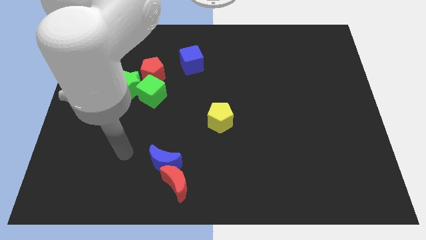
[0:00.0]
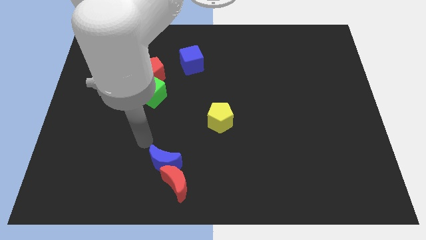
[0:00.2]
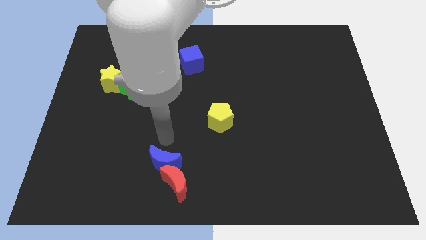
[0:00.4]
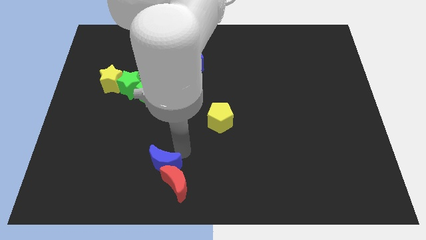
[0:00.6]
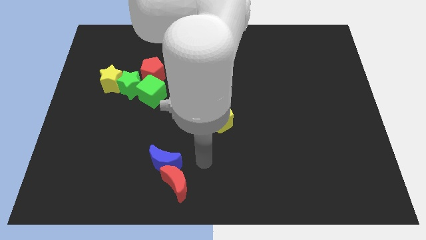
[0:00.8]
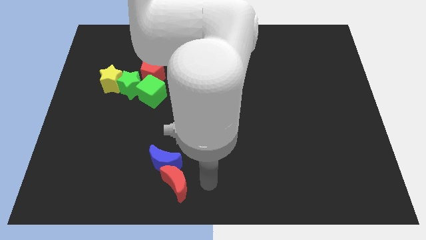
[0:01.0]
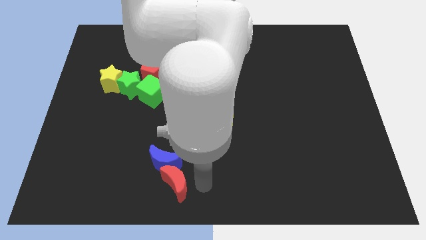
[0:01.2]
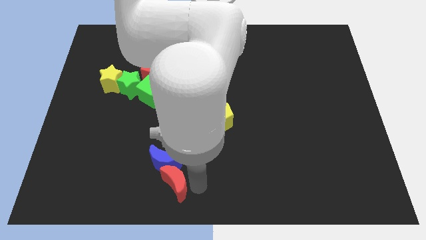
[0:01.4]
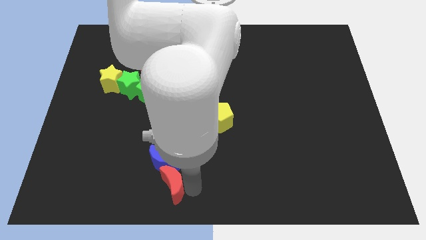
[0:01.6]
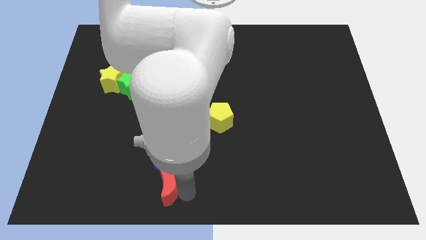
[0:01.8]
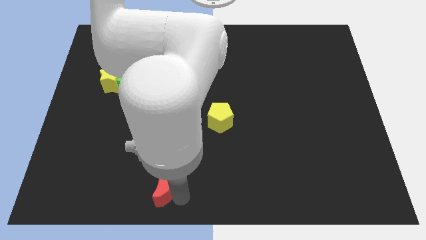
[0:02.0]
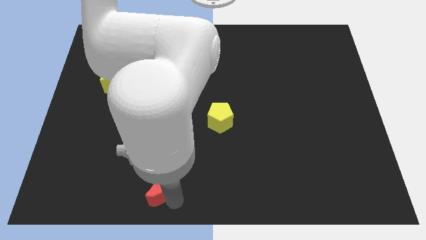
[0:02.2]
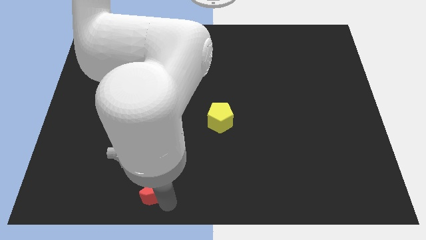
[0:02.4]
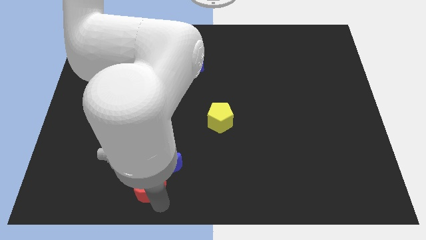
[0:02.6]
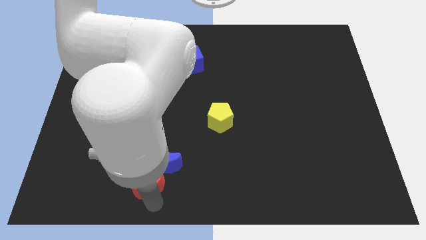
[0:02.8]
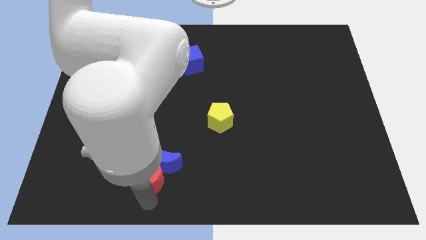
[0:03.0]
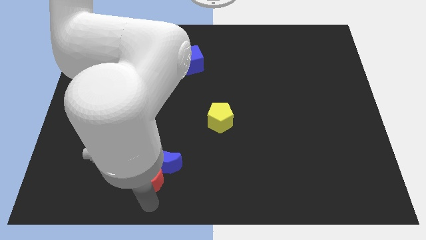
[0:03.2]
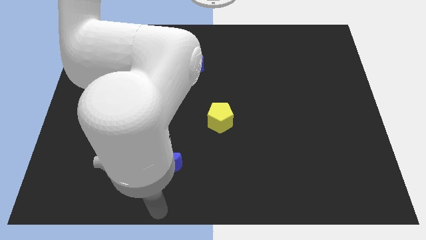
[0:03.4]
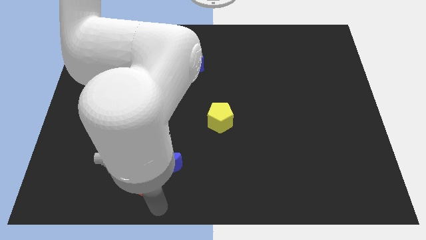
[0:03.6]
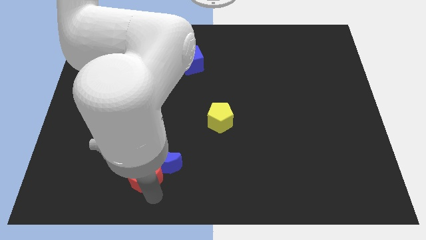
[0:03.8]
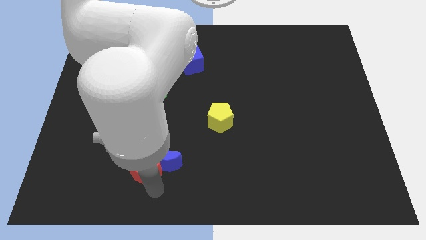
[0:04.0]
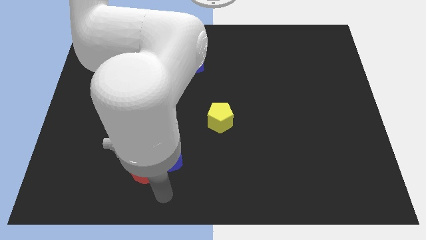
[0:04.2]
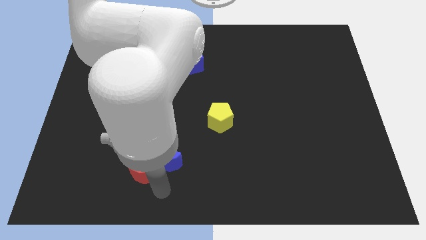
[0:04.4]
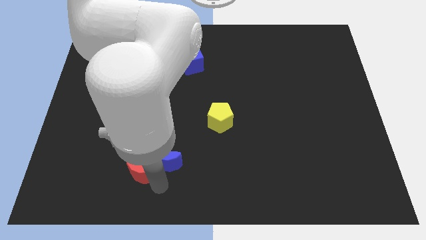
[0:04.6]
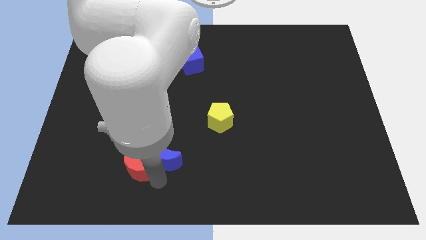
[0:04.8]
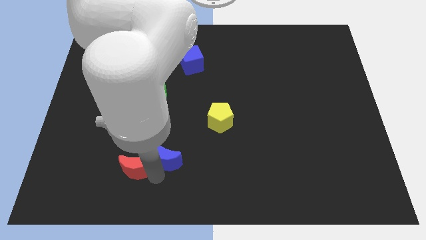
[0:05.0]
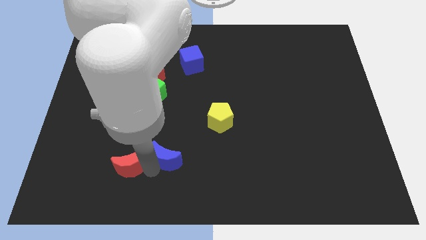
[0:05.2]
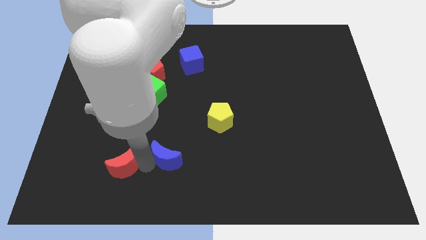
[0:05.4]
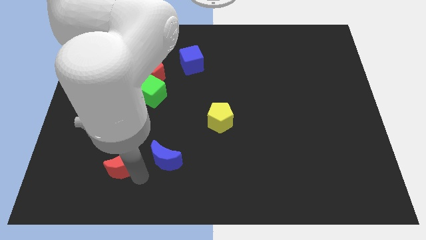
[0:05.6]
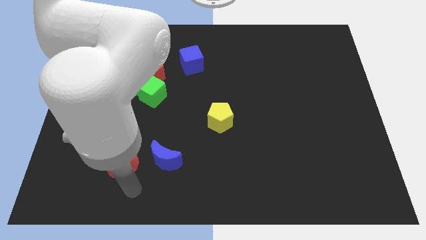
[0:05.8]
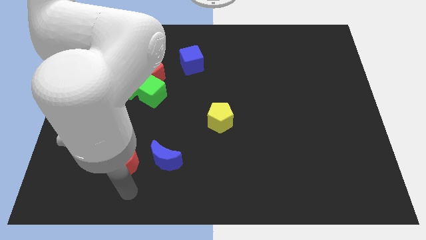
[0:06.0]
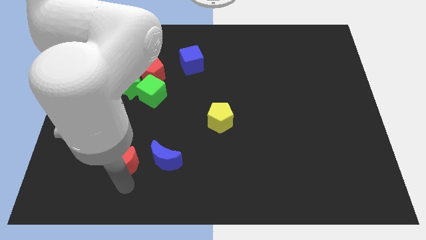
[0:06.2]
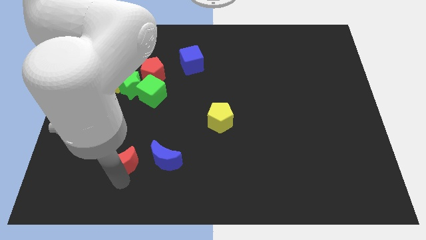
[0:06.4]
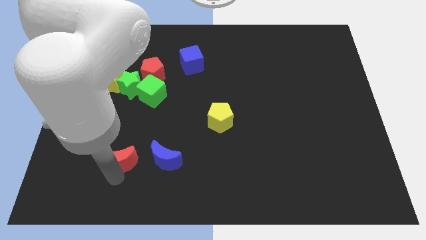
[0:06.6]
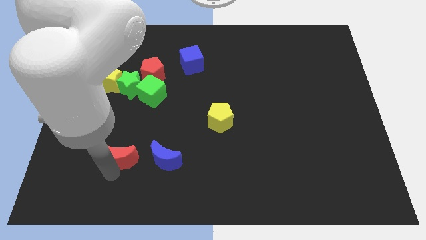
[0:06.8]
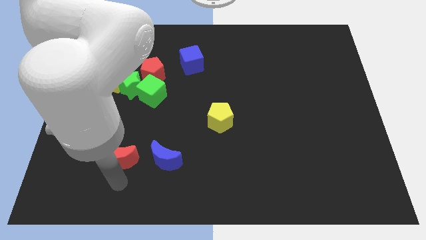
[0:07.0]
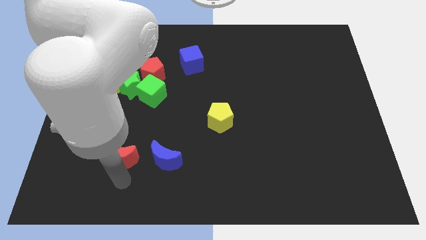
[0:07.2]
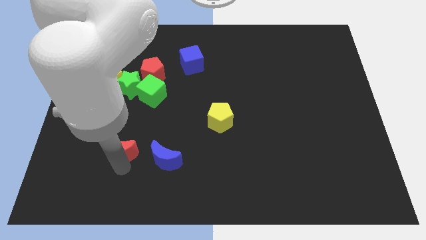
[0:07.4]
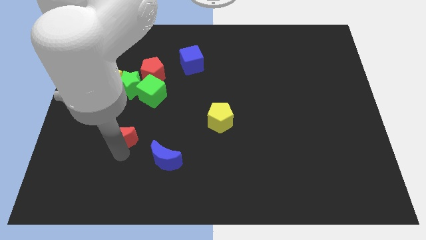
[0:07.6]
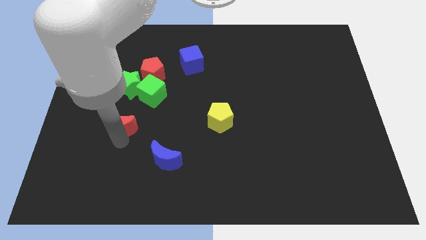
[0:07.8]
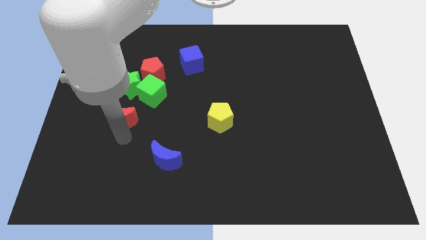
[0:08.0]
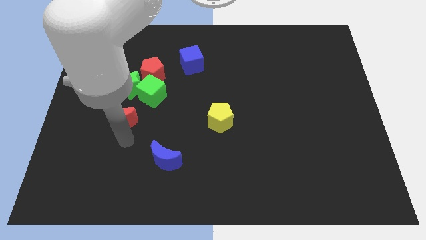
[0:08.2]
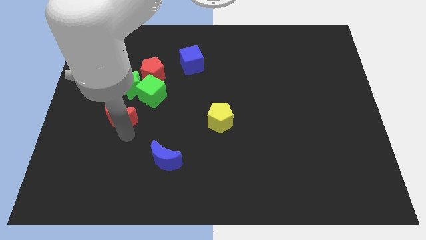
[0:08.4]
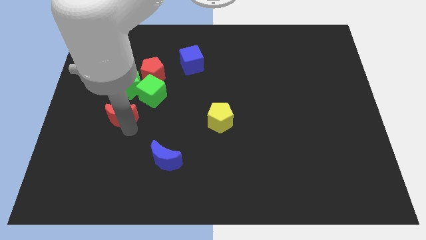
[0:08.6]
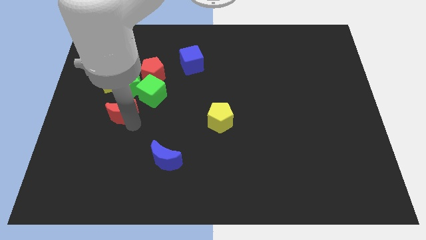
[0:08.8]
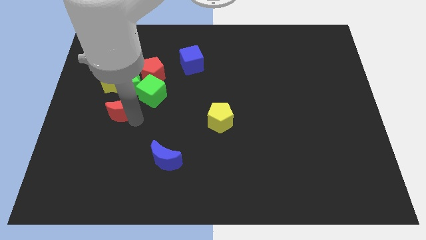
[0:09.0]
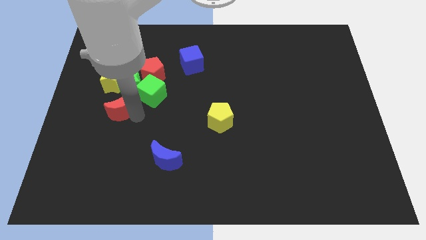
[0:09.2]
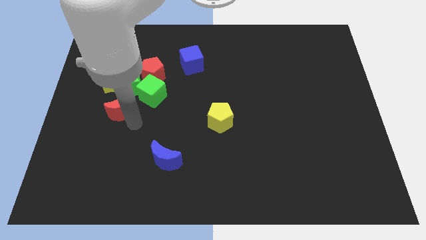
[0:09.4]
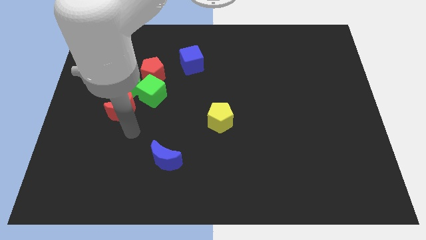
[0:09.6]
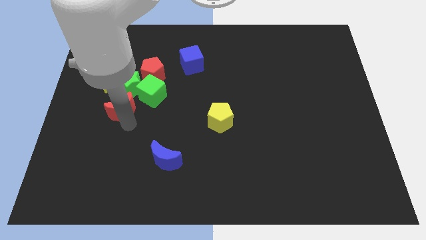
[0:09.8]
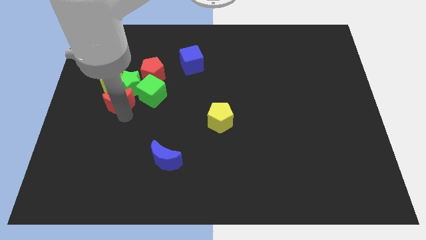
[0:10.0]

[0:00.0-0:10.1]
slide the red moon to the bottom left of the red pentagon

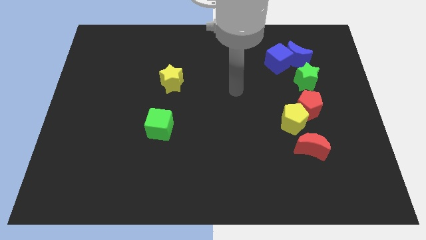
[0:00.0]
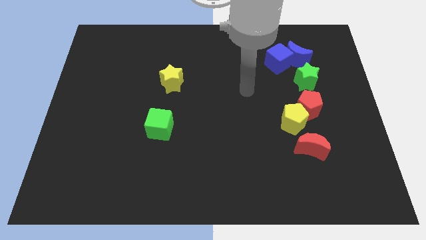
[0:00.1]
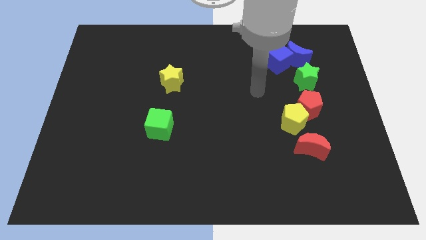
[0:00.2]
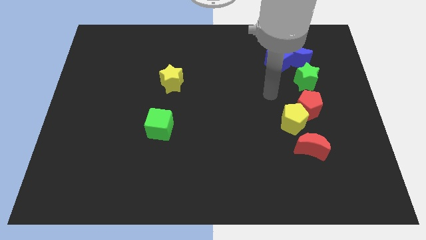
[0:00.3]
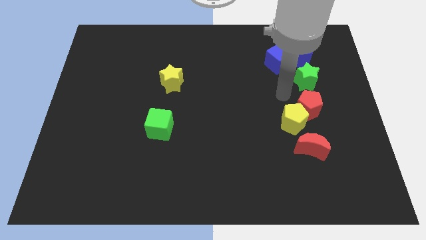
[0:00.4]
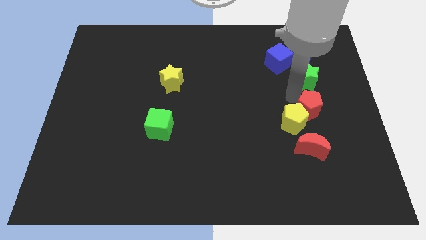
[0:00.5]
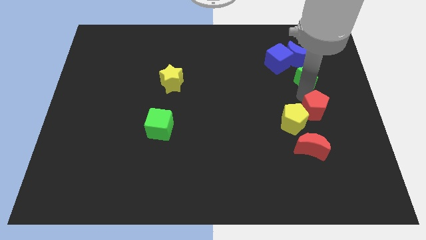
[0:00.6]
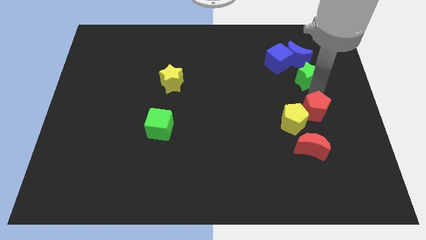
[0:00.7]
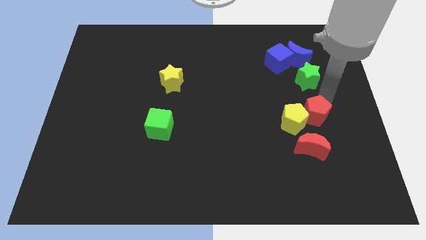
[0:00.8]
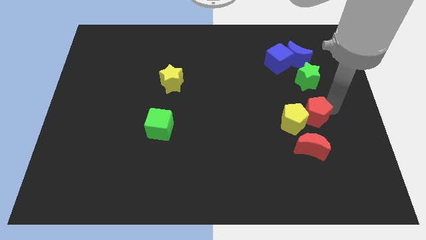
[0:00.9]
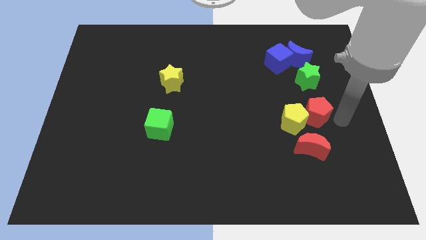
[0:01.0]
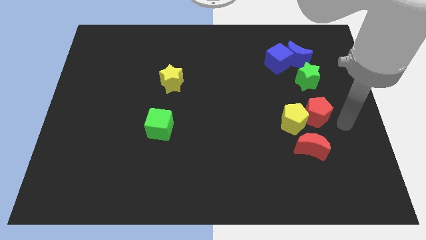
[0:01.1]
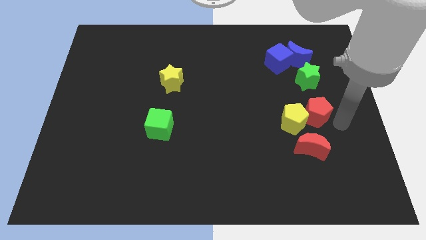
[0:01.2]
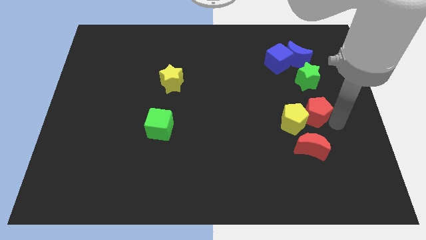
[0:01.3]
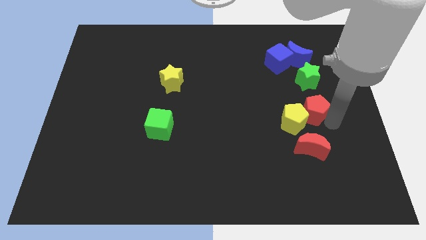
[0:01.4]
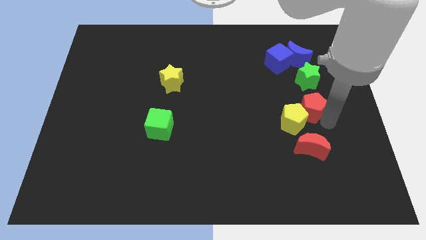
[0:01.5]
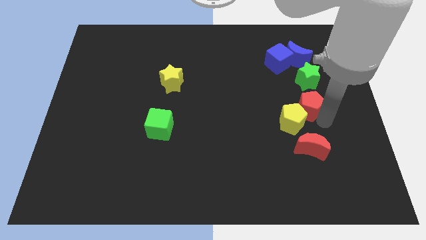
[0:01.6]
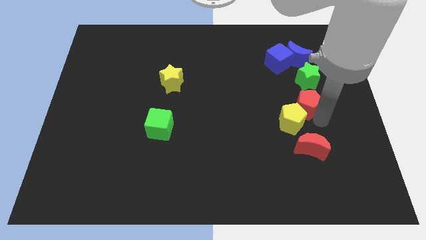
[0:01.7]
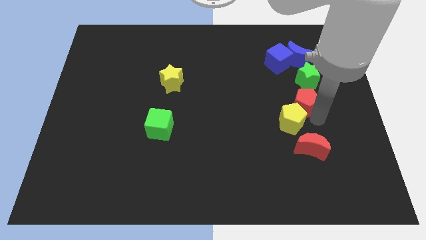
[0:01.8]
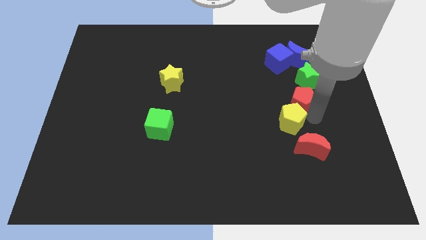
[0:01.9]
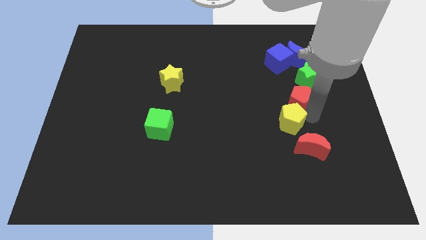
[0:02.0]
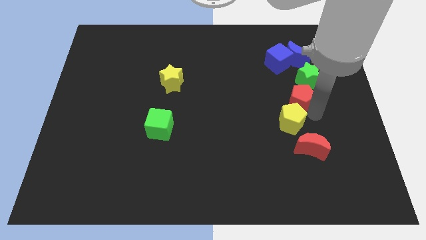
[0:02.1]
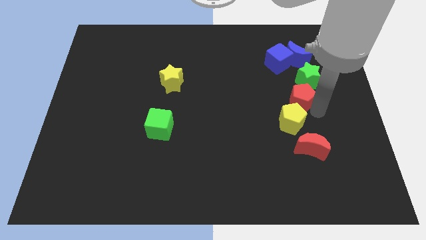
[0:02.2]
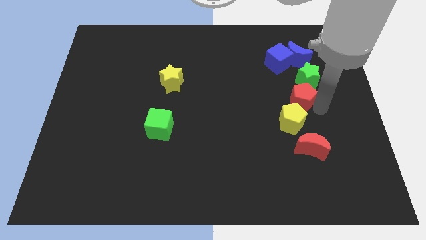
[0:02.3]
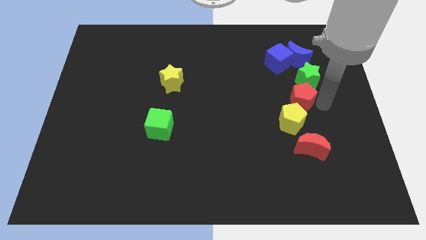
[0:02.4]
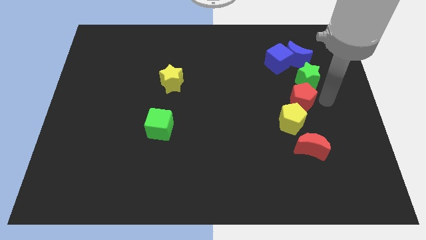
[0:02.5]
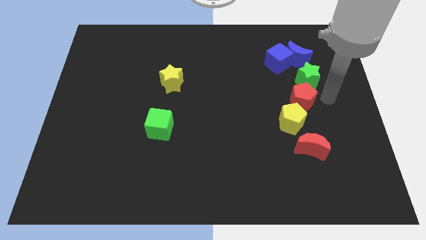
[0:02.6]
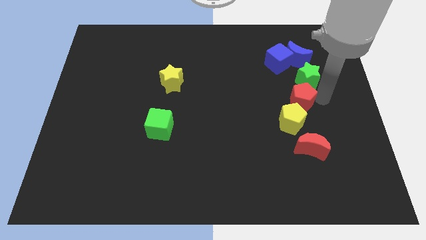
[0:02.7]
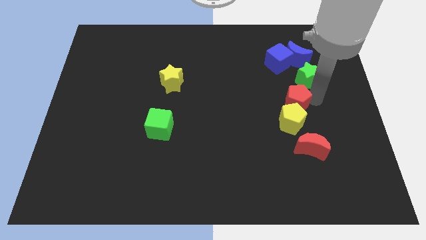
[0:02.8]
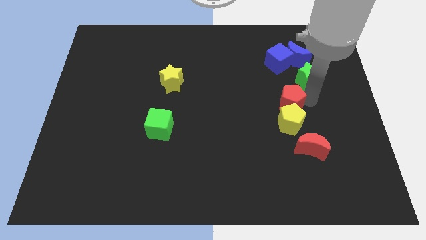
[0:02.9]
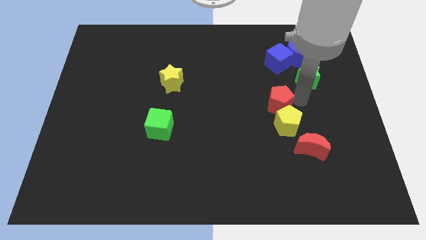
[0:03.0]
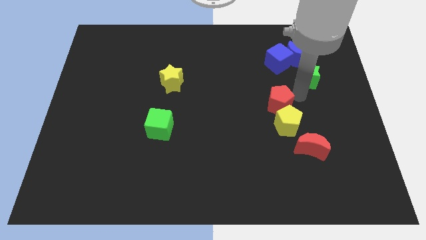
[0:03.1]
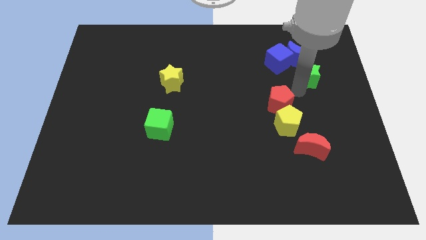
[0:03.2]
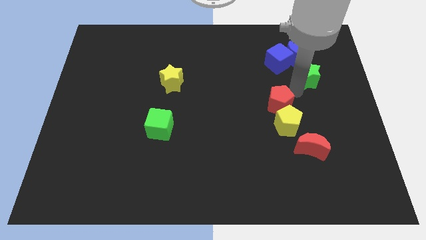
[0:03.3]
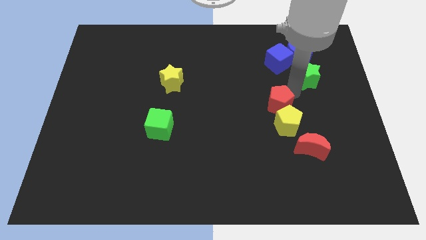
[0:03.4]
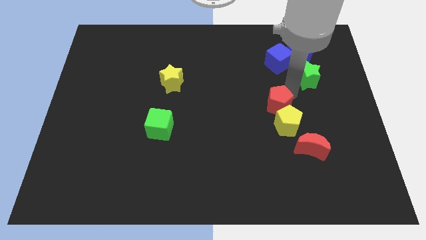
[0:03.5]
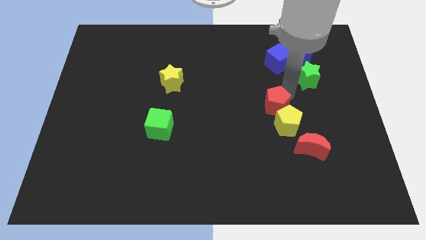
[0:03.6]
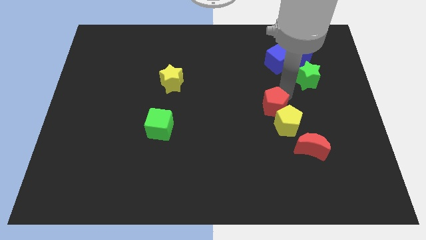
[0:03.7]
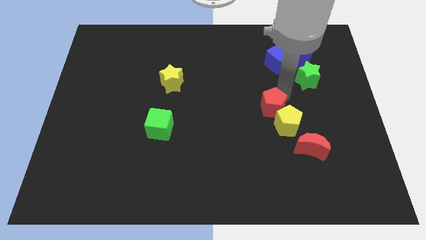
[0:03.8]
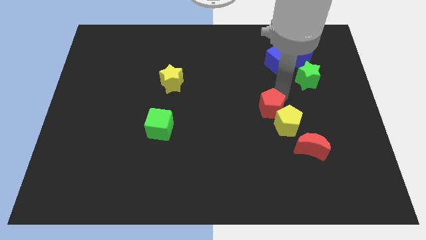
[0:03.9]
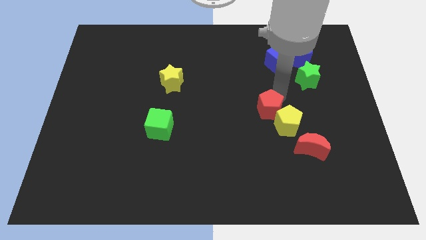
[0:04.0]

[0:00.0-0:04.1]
slide the red pentagon to the left side of the yellow pentagon
